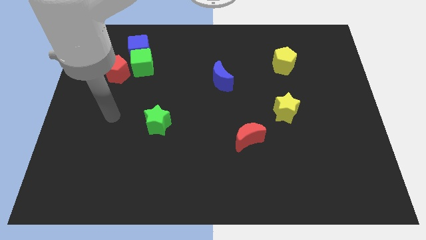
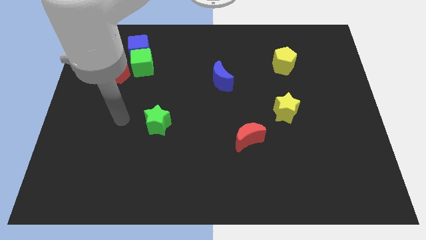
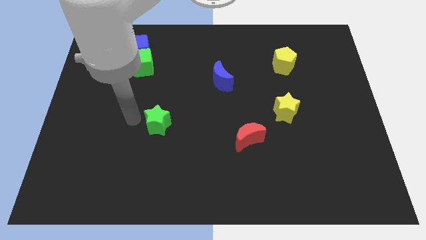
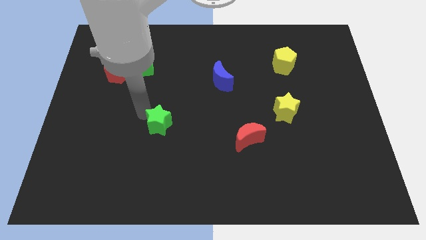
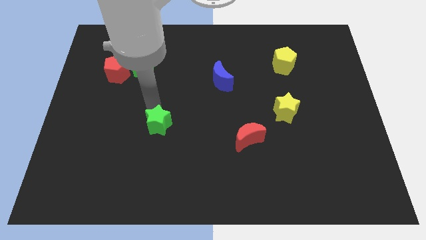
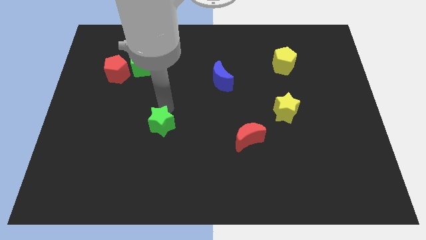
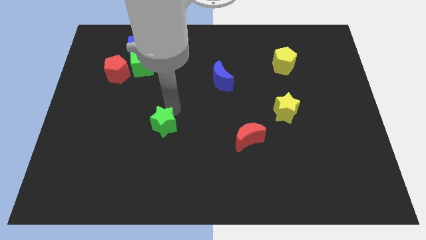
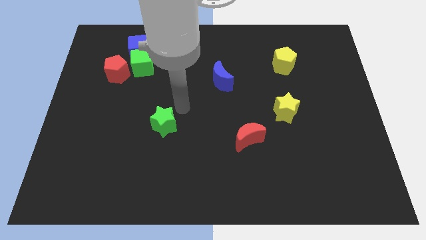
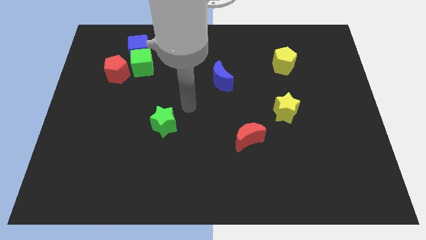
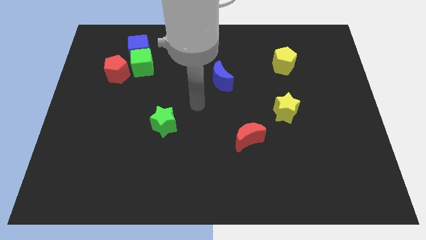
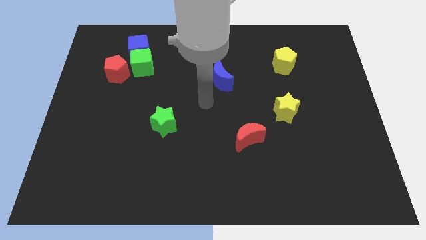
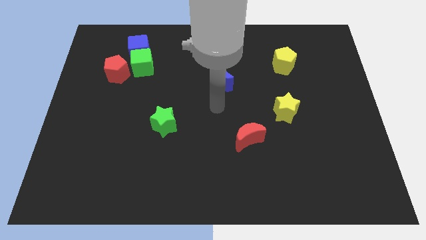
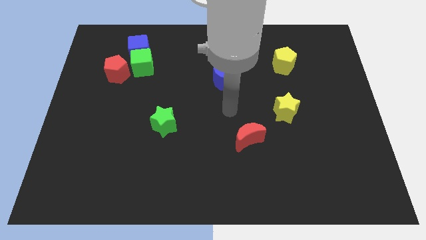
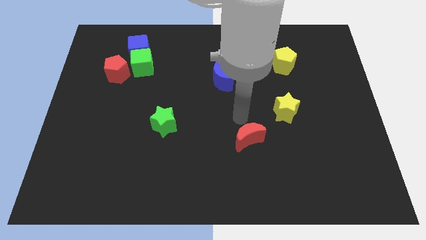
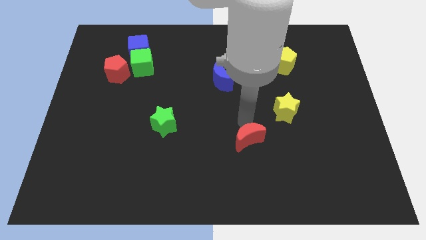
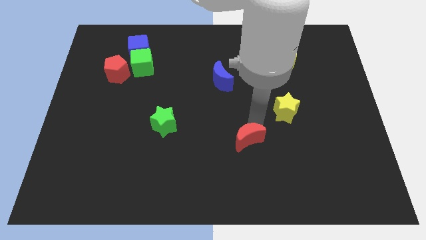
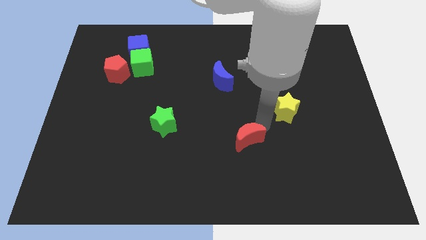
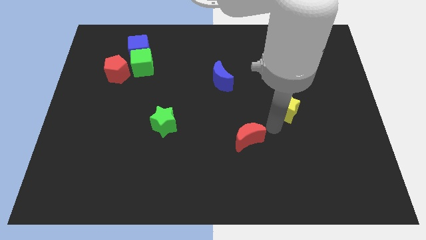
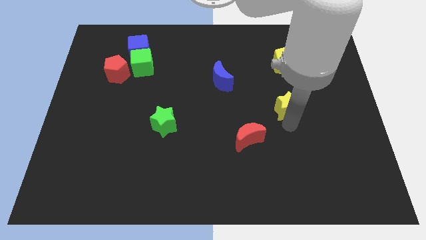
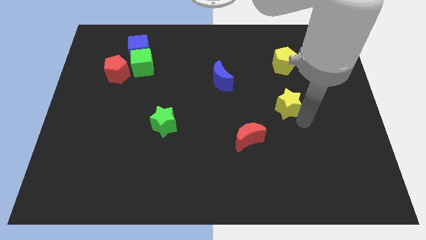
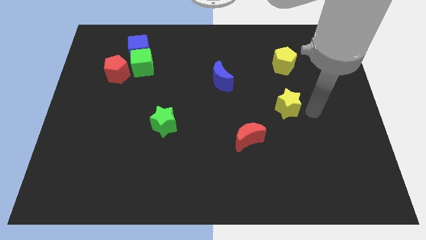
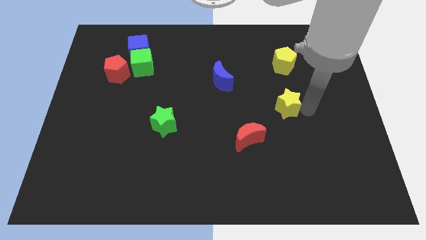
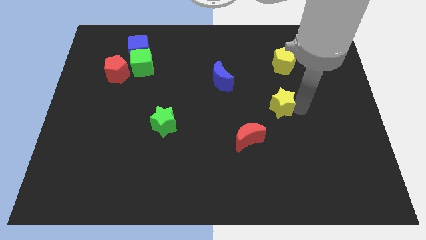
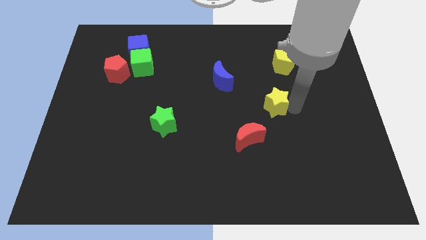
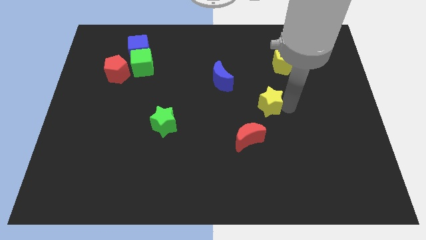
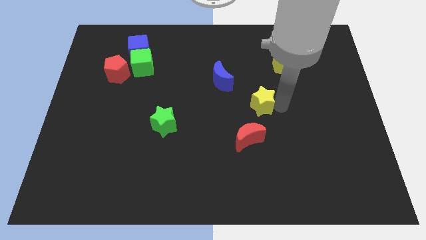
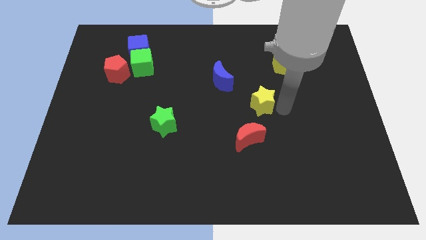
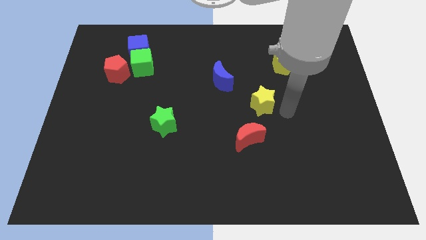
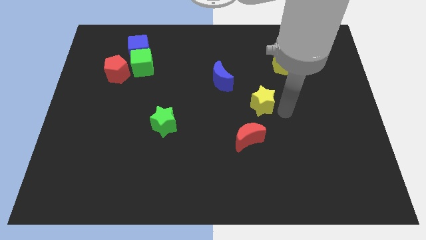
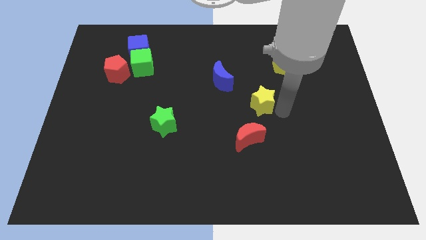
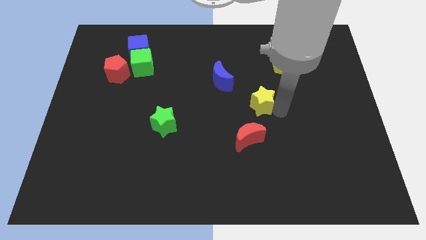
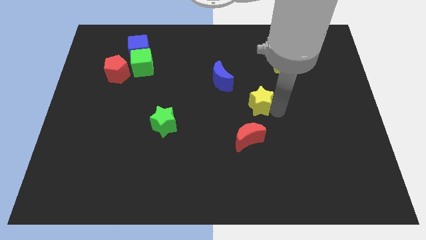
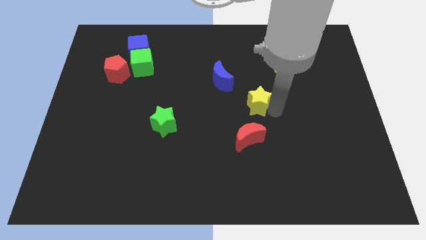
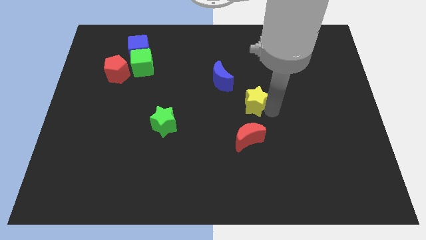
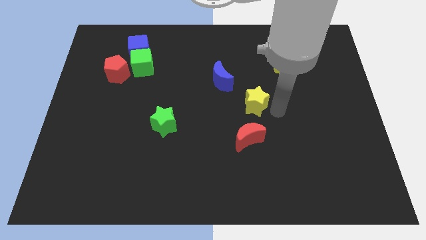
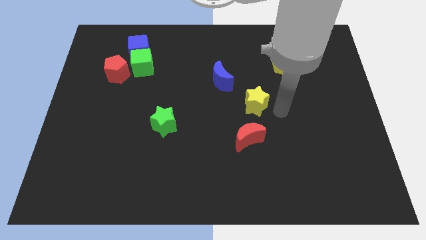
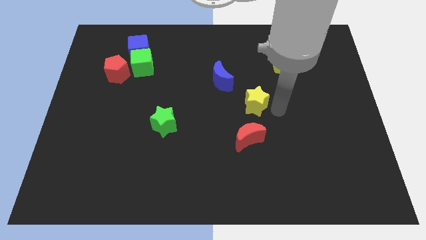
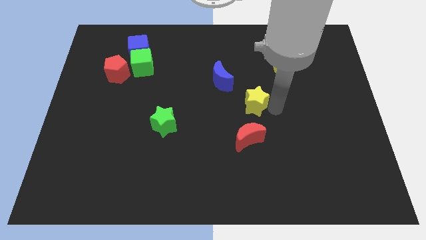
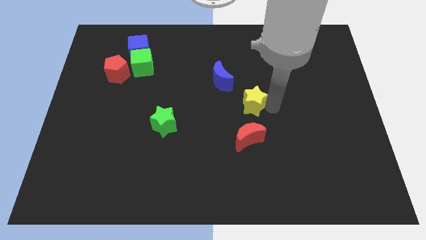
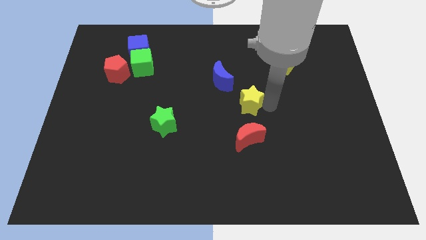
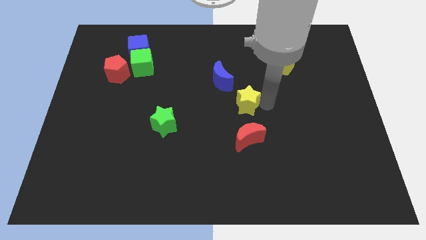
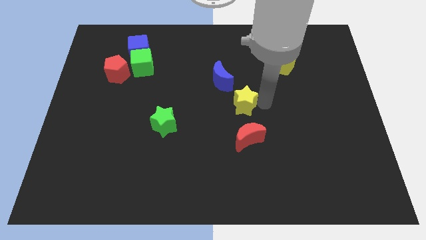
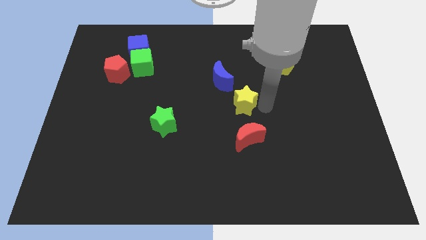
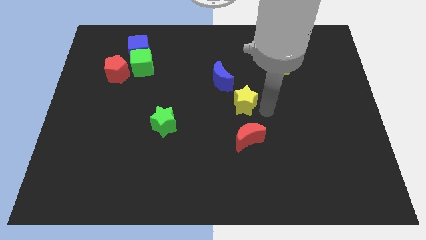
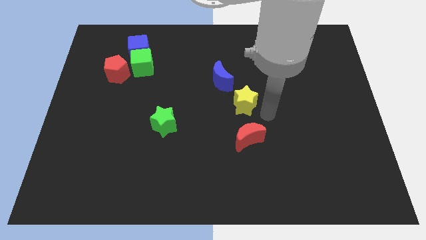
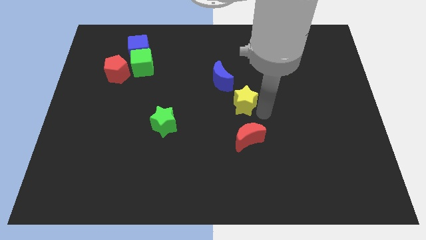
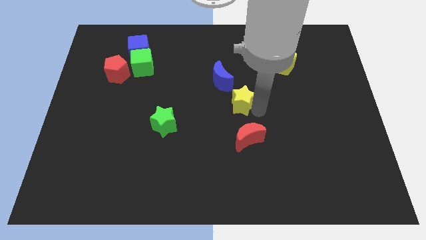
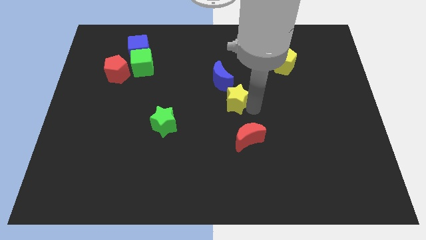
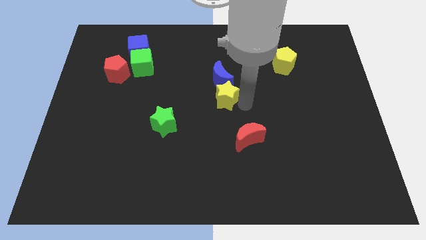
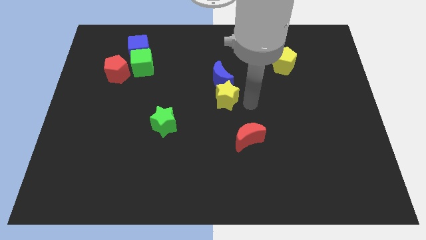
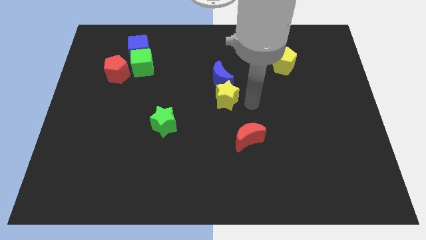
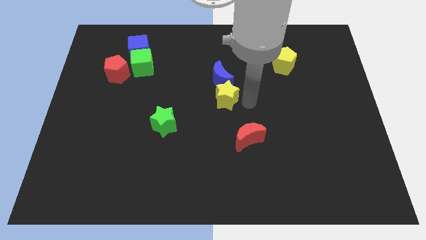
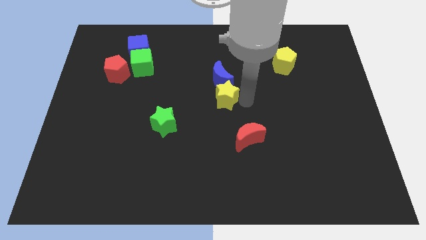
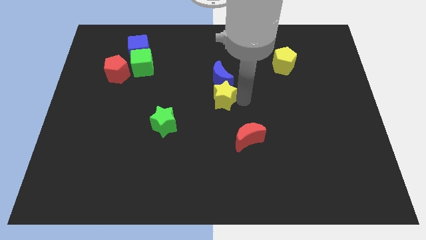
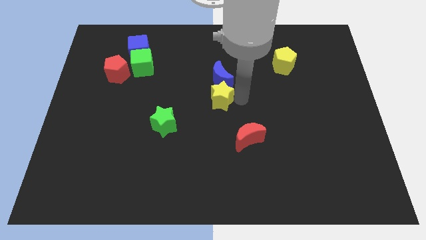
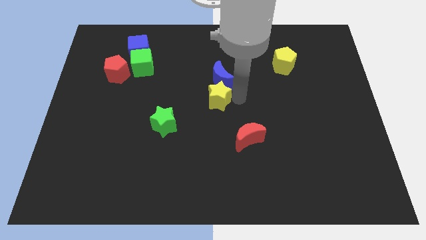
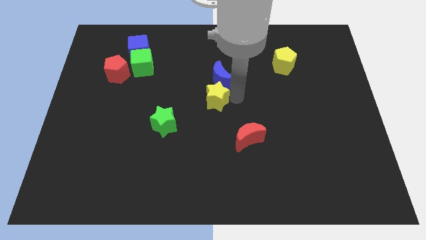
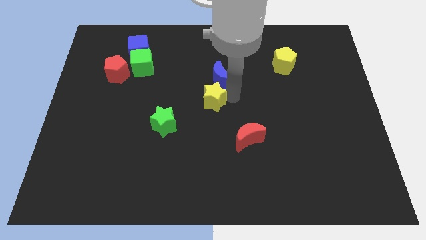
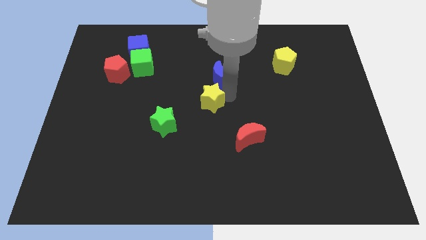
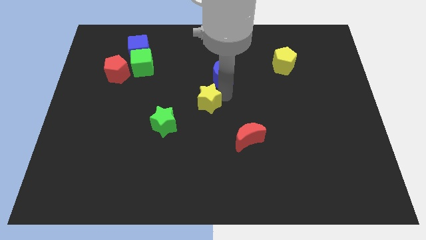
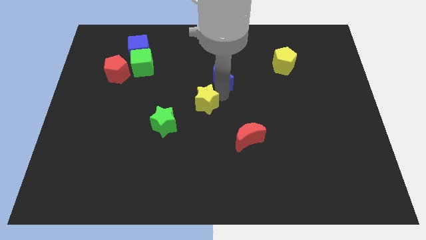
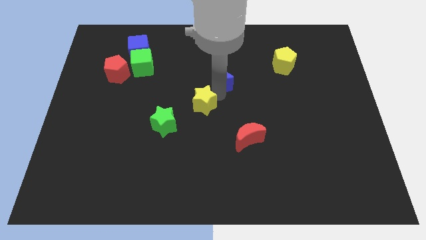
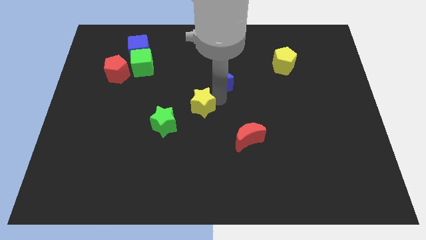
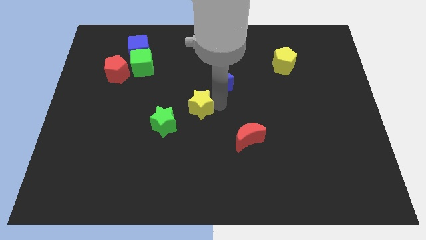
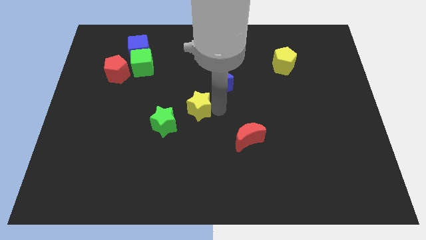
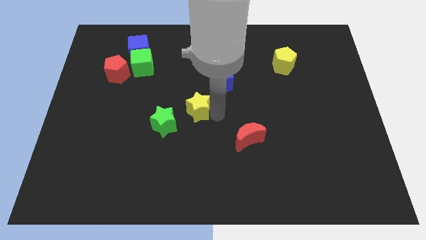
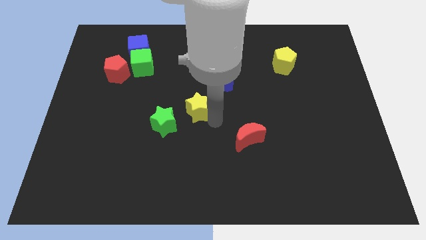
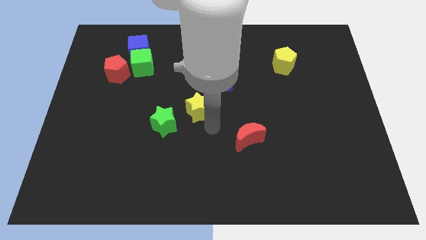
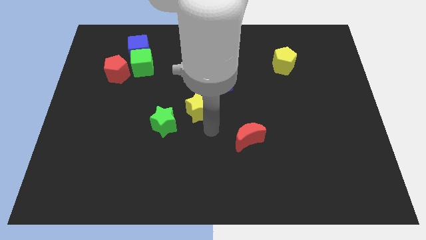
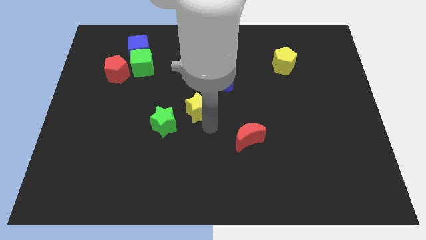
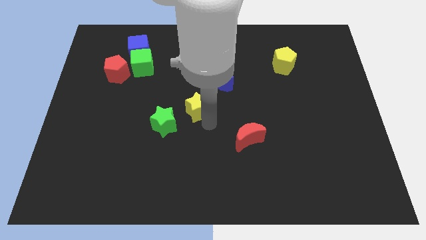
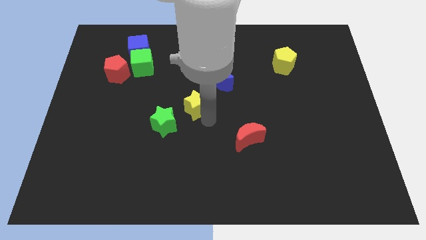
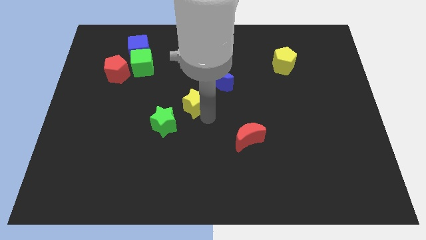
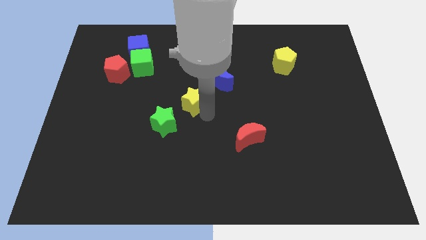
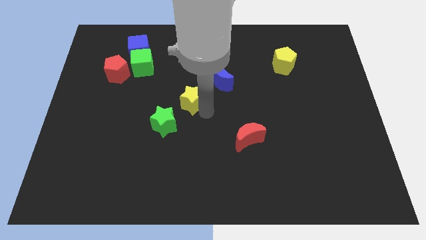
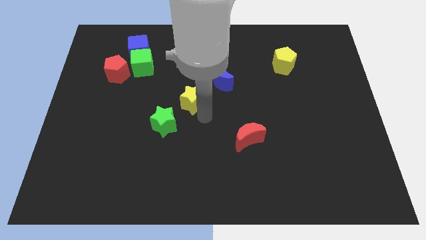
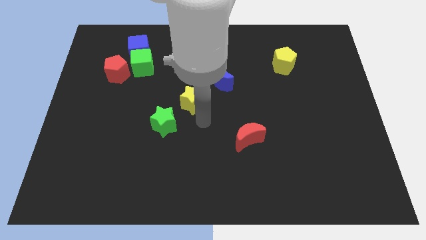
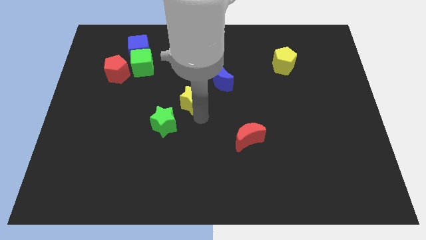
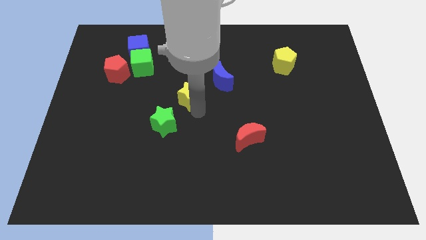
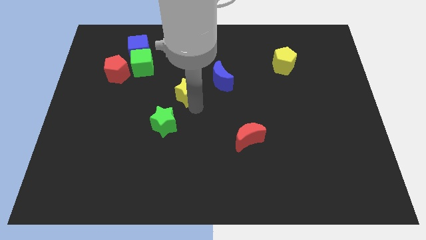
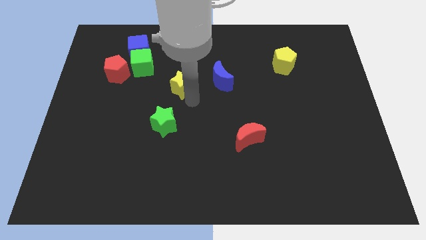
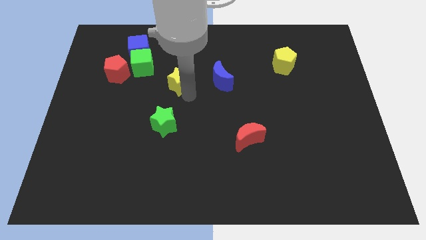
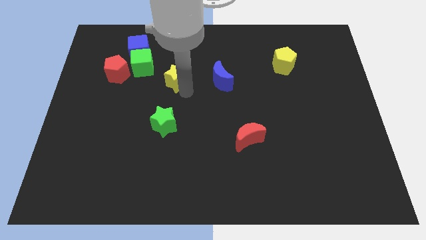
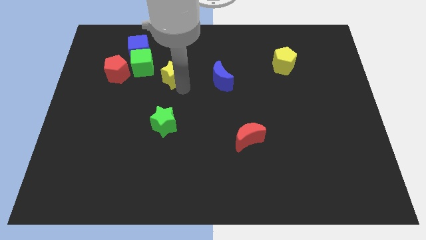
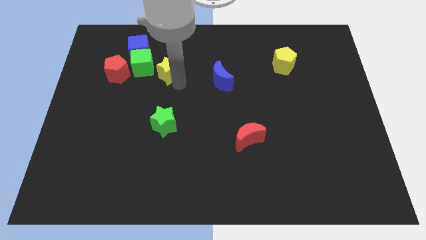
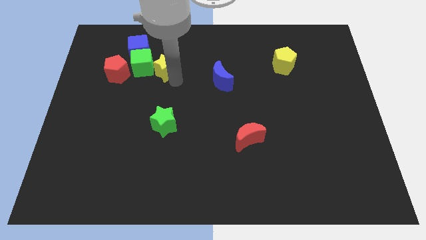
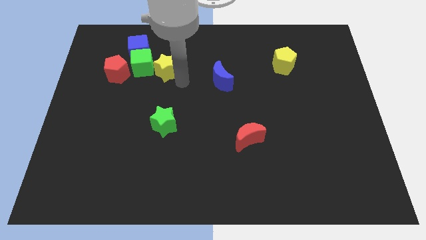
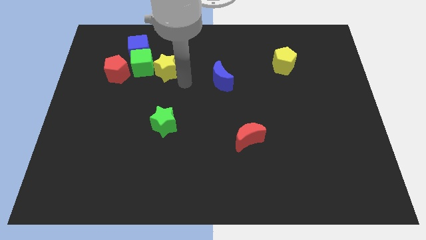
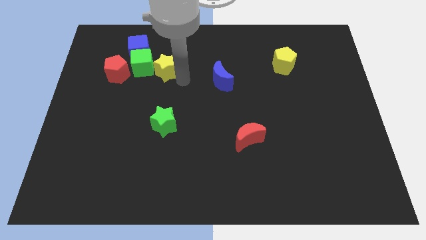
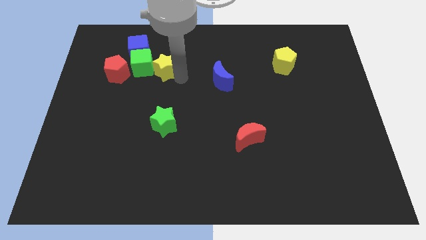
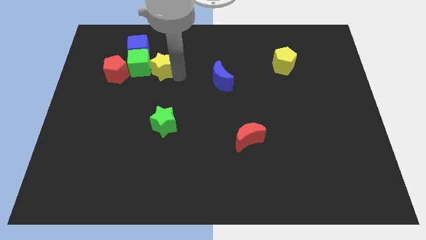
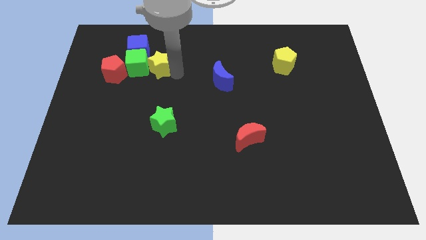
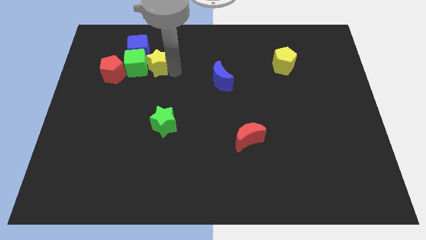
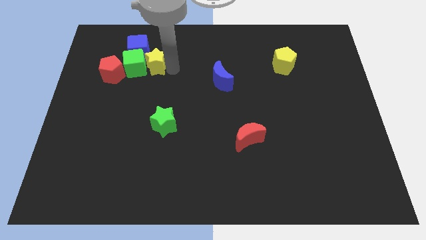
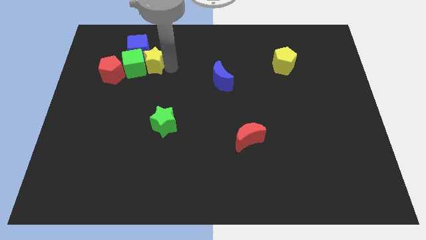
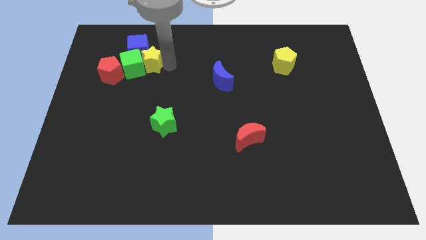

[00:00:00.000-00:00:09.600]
move the yellow star to the blue cube
